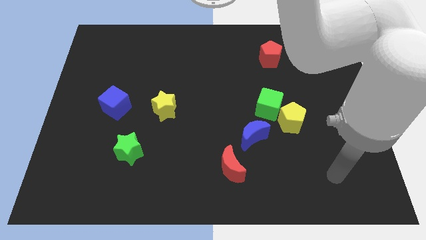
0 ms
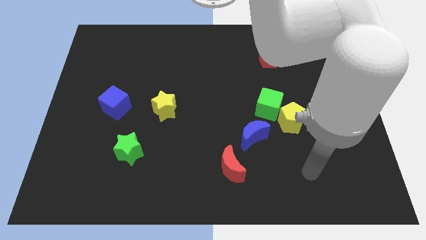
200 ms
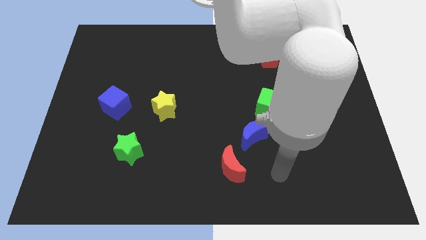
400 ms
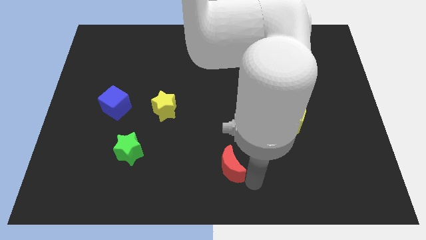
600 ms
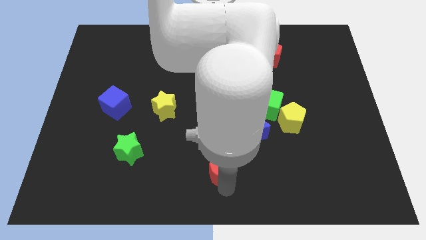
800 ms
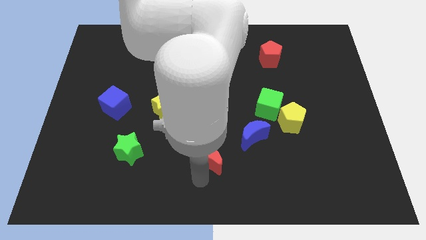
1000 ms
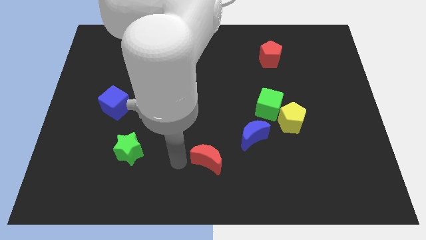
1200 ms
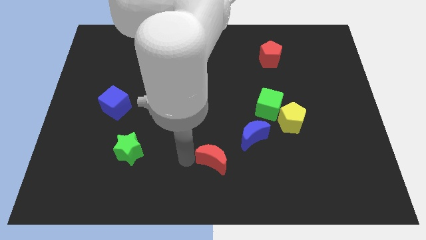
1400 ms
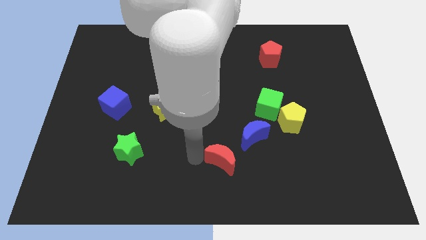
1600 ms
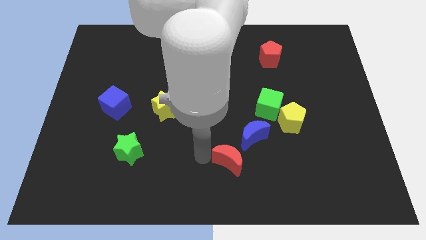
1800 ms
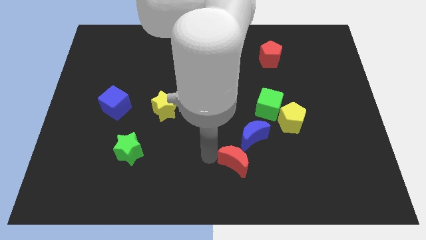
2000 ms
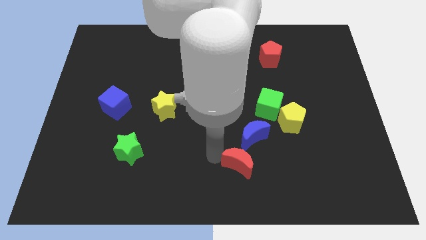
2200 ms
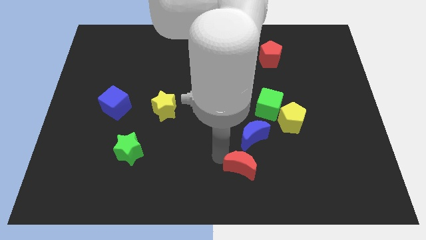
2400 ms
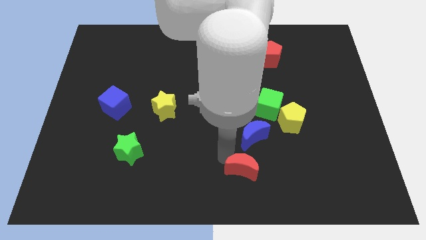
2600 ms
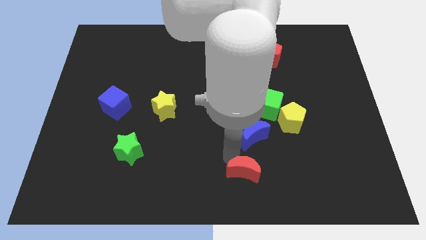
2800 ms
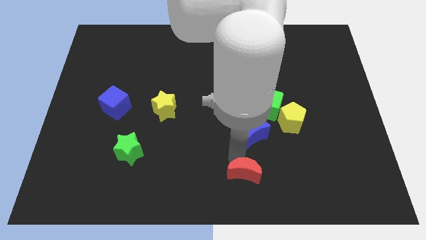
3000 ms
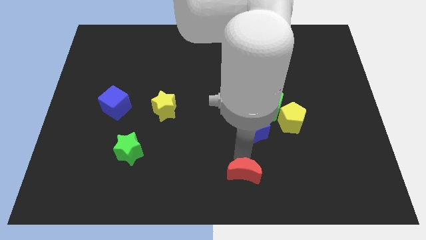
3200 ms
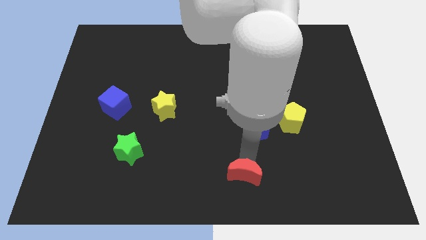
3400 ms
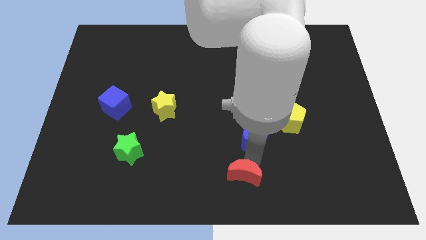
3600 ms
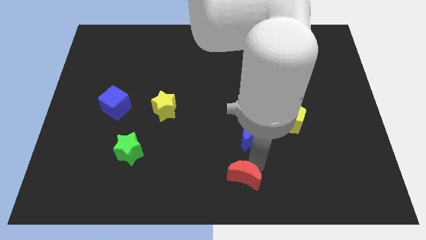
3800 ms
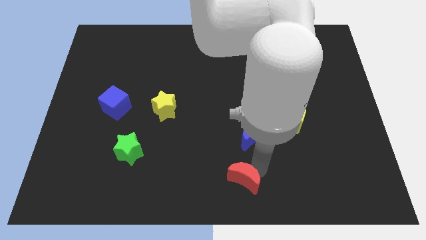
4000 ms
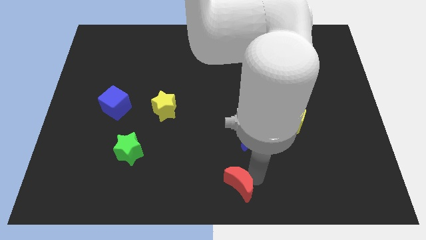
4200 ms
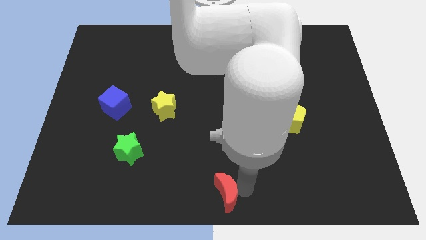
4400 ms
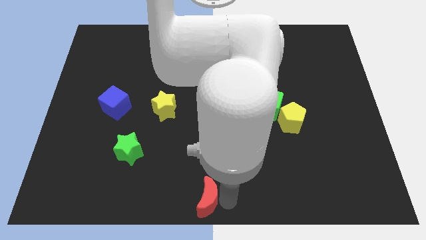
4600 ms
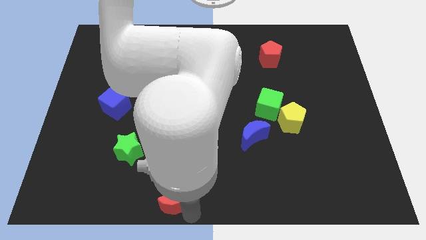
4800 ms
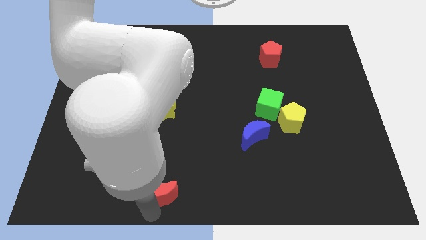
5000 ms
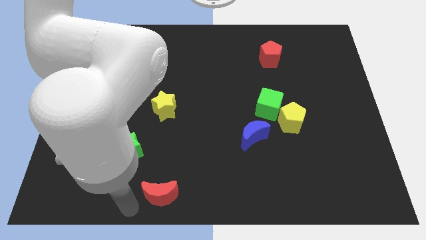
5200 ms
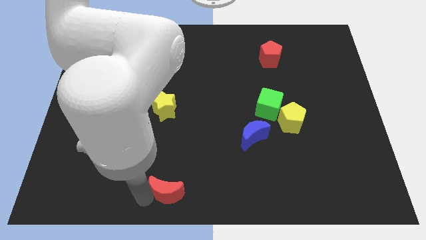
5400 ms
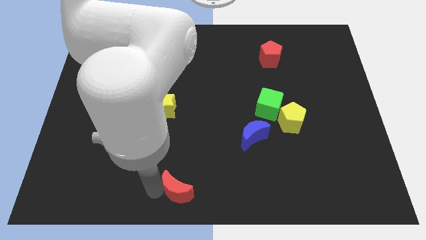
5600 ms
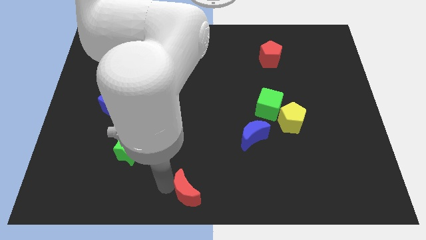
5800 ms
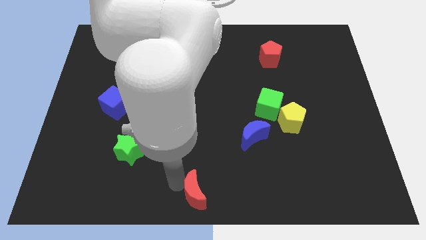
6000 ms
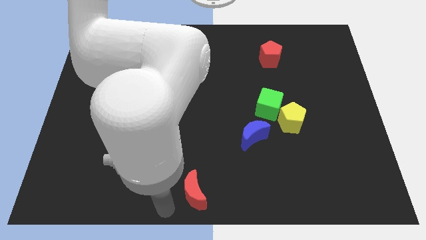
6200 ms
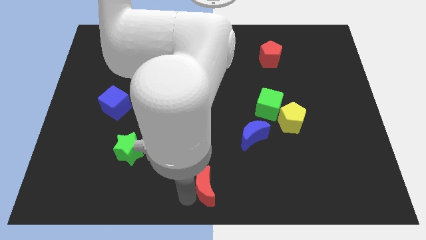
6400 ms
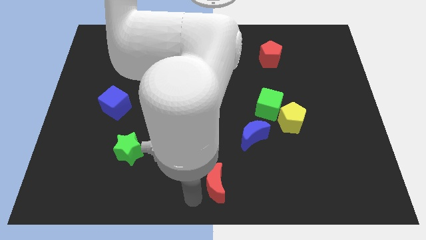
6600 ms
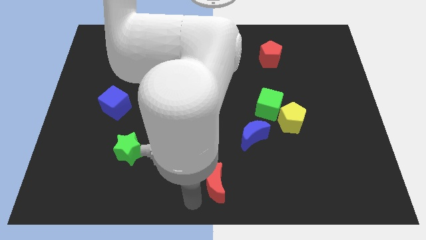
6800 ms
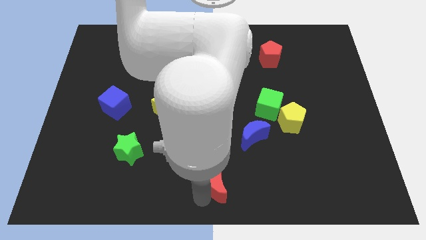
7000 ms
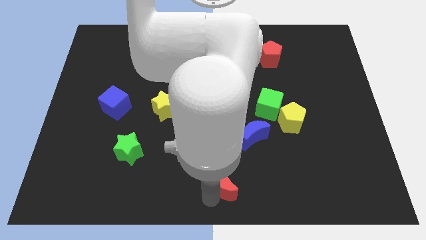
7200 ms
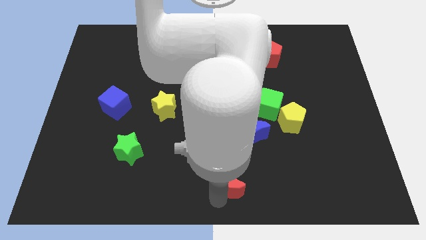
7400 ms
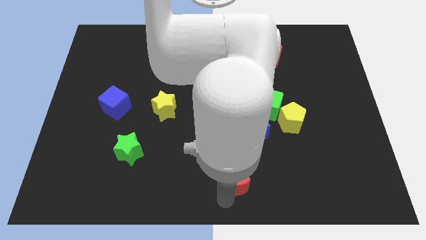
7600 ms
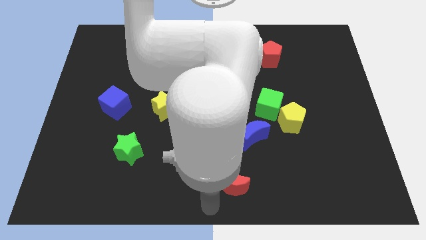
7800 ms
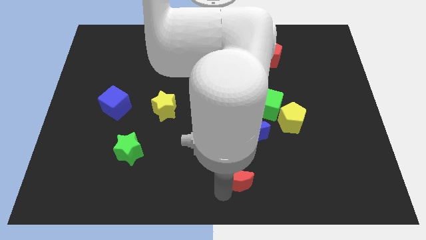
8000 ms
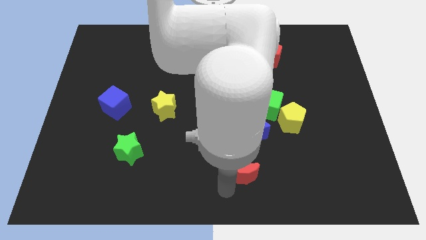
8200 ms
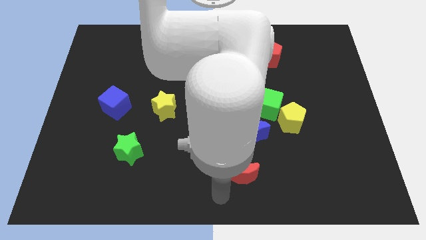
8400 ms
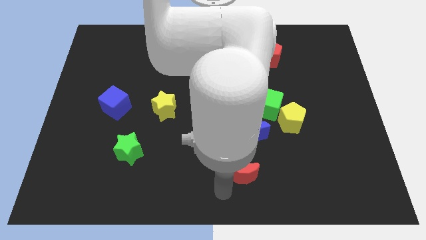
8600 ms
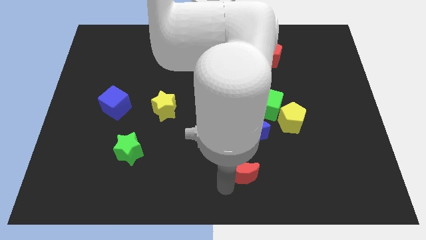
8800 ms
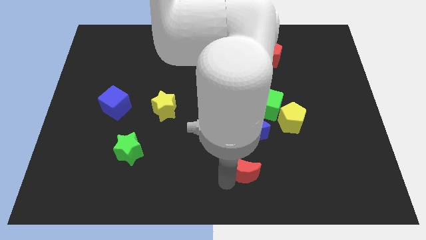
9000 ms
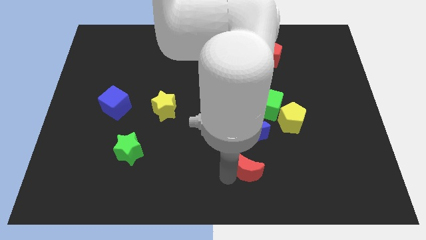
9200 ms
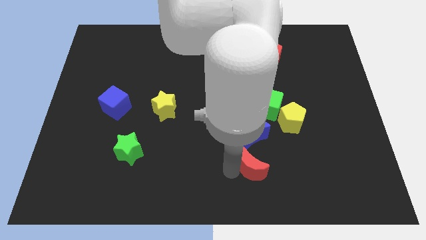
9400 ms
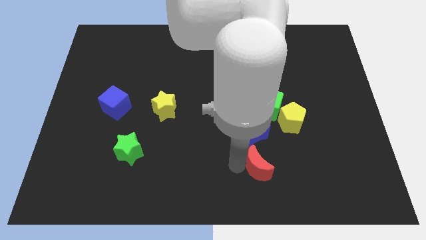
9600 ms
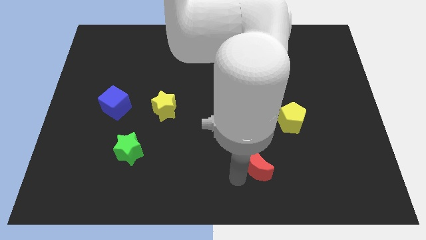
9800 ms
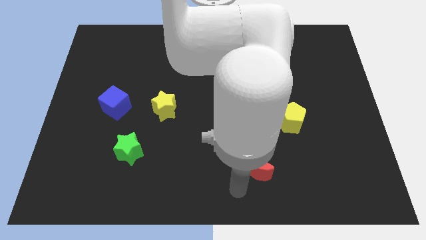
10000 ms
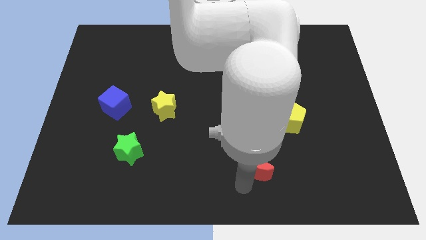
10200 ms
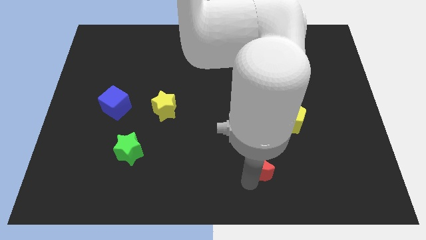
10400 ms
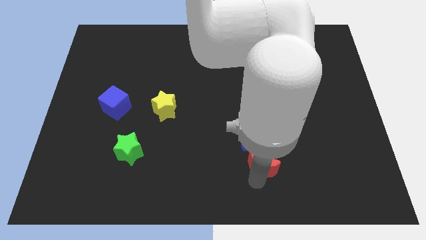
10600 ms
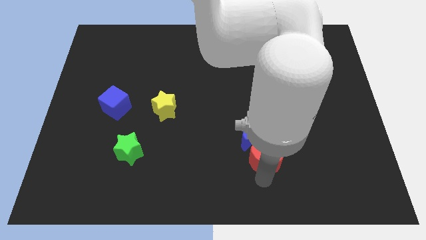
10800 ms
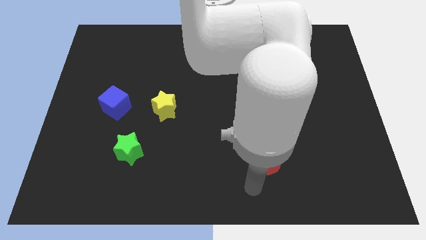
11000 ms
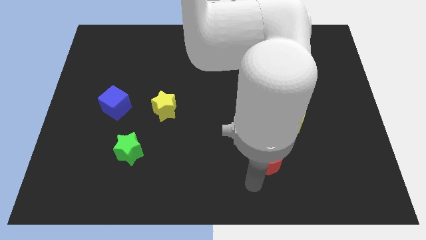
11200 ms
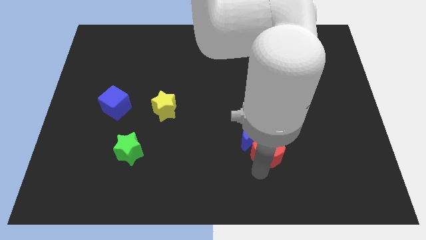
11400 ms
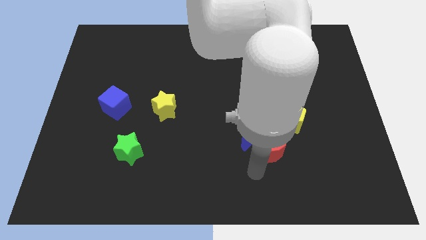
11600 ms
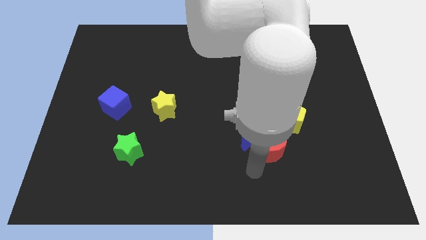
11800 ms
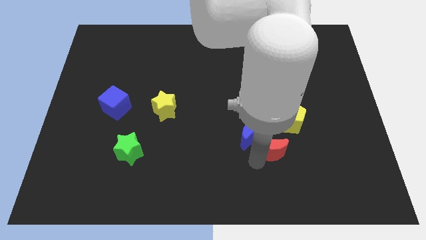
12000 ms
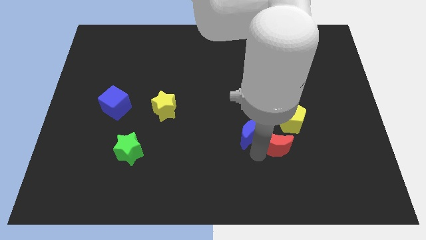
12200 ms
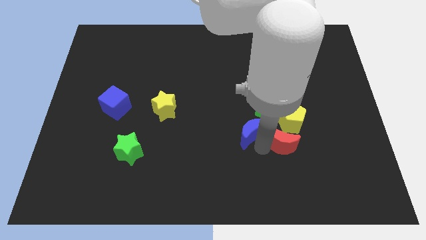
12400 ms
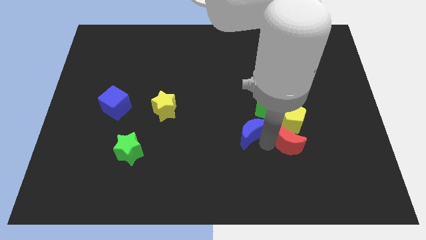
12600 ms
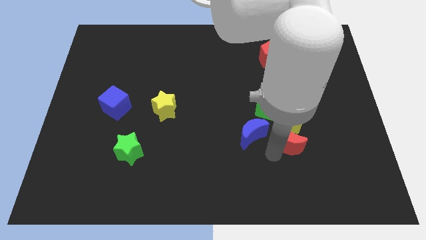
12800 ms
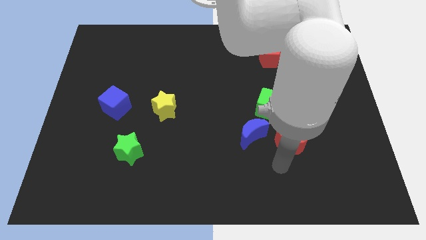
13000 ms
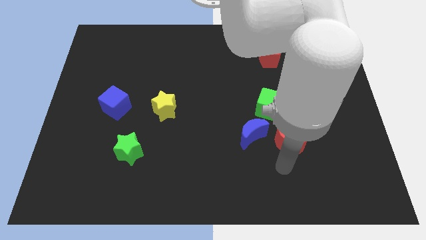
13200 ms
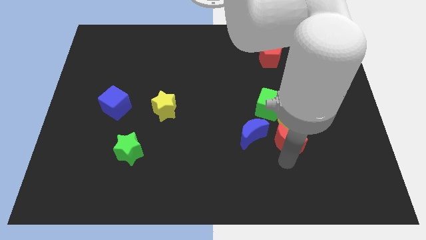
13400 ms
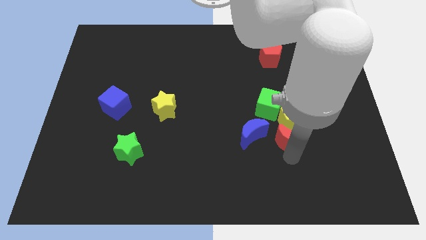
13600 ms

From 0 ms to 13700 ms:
put the red moon next to the yellow pentagon

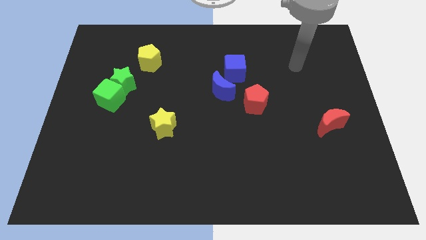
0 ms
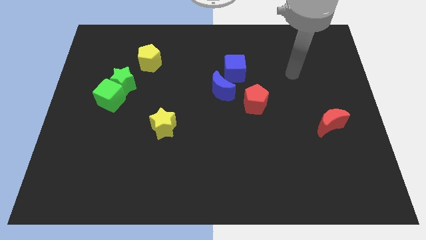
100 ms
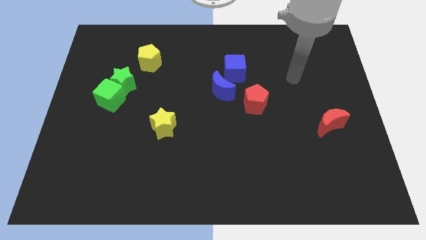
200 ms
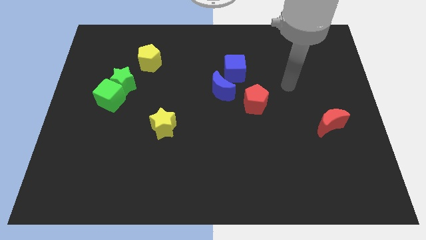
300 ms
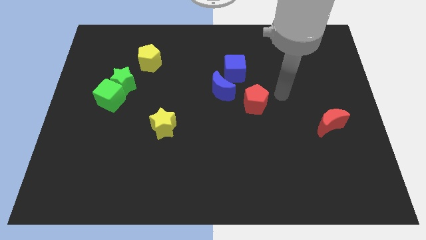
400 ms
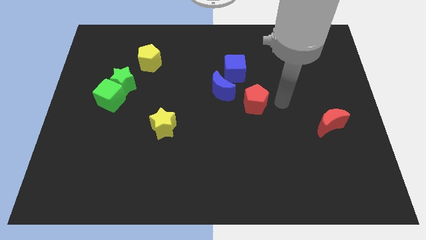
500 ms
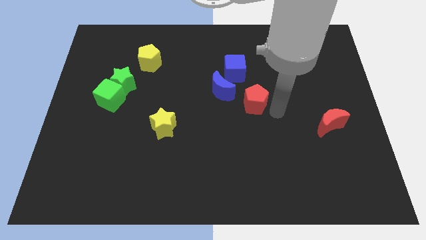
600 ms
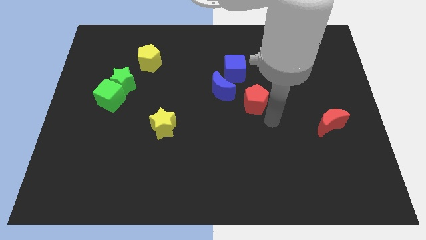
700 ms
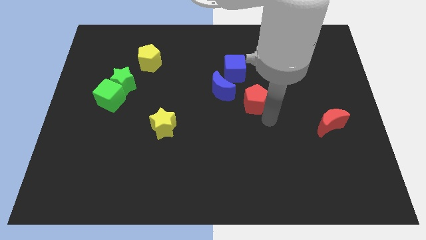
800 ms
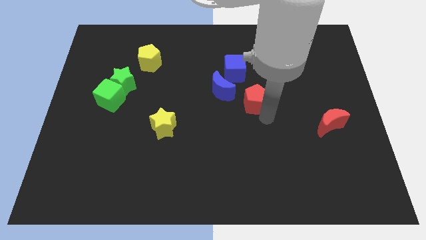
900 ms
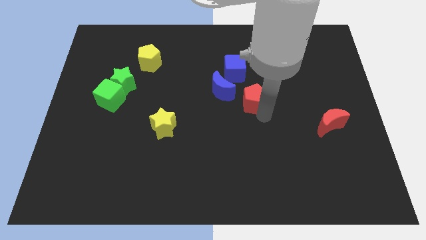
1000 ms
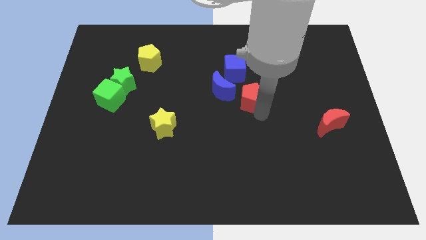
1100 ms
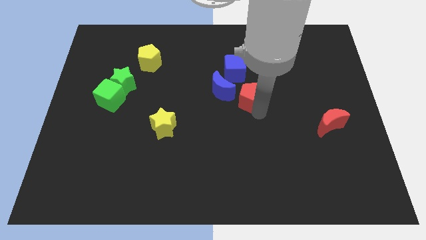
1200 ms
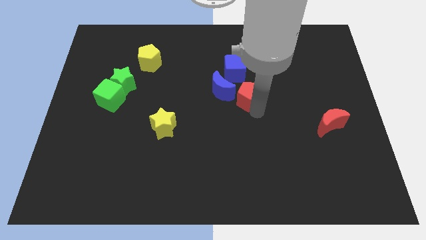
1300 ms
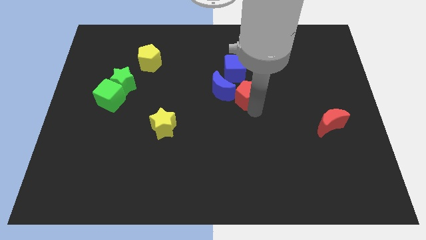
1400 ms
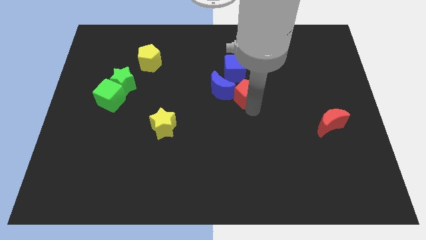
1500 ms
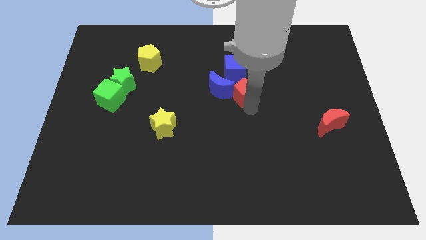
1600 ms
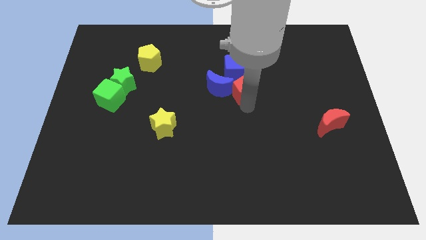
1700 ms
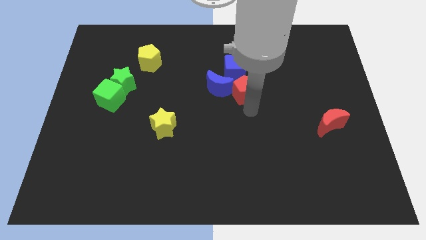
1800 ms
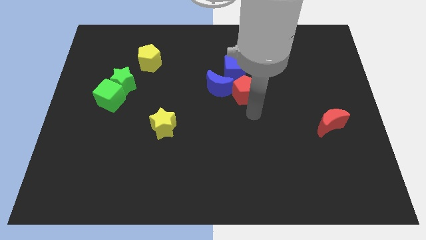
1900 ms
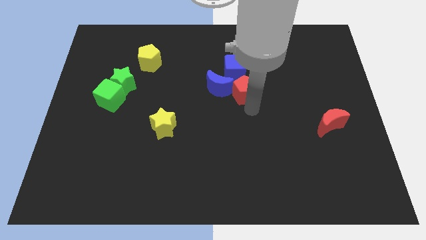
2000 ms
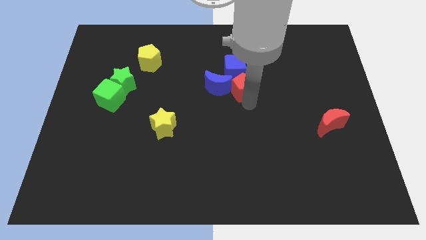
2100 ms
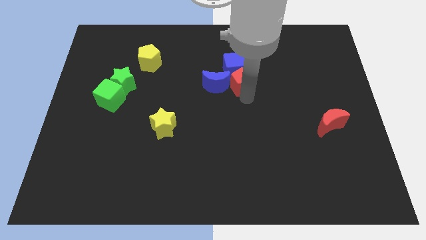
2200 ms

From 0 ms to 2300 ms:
move the red pentagon next to the blue cube
